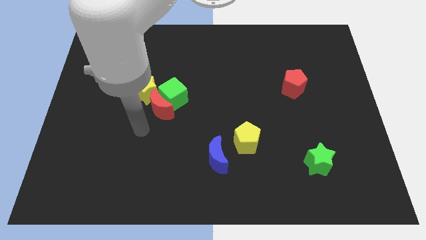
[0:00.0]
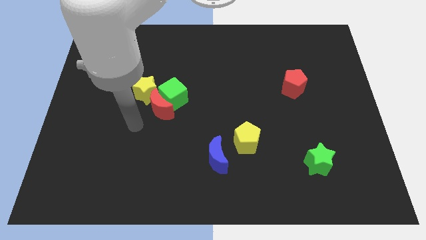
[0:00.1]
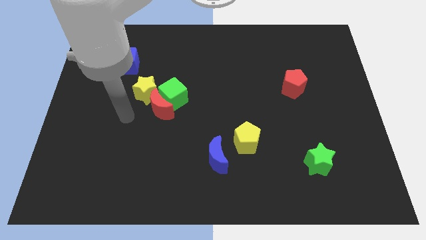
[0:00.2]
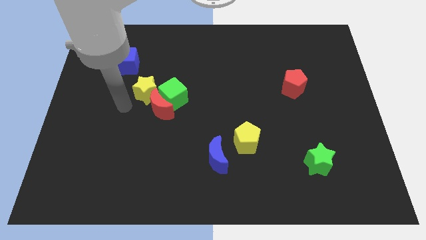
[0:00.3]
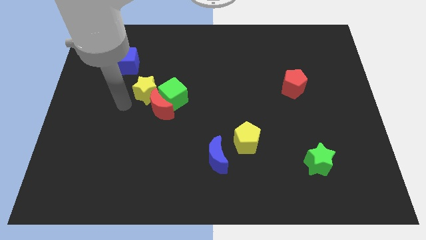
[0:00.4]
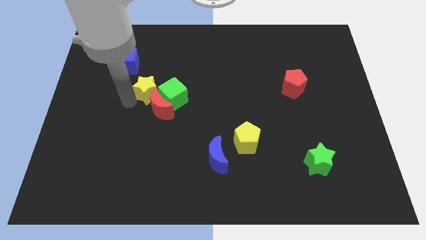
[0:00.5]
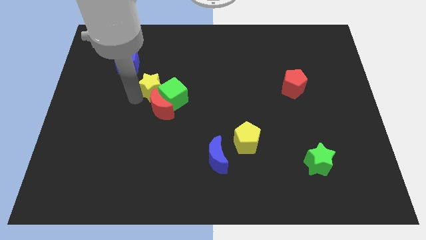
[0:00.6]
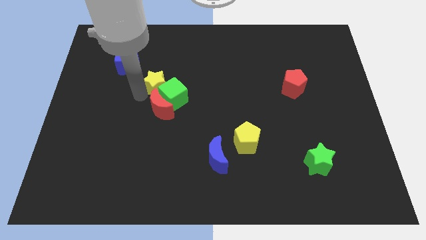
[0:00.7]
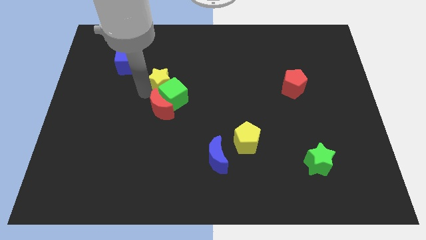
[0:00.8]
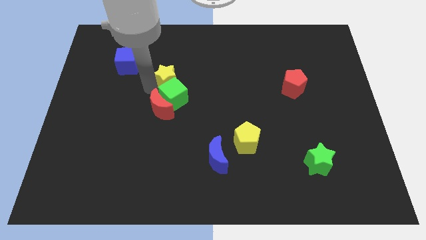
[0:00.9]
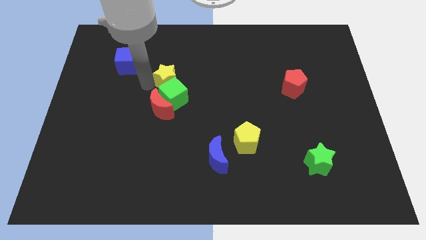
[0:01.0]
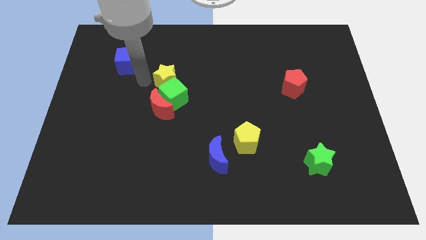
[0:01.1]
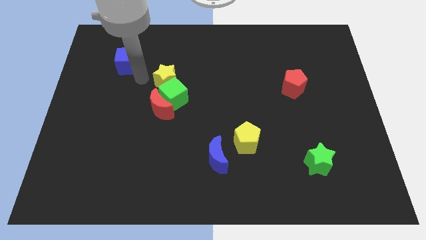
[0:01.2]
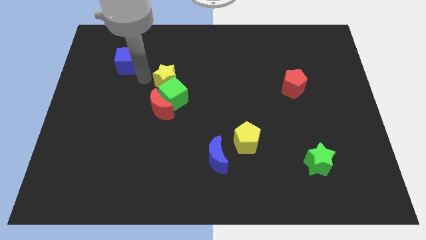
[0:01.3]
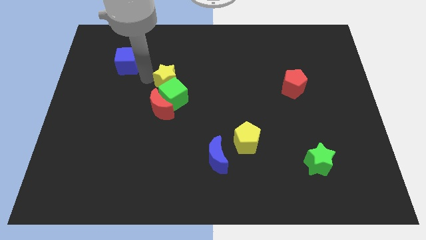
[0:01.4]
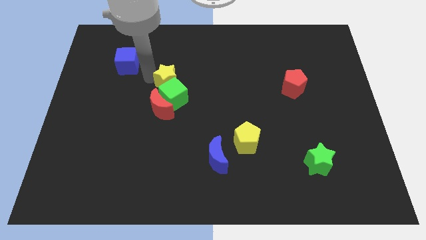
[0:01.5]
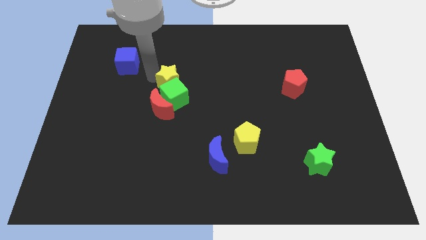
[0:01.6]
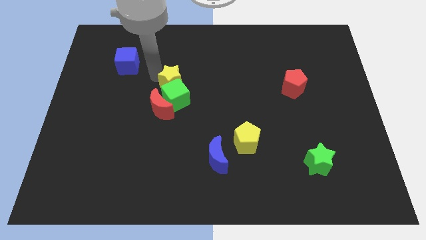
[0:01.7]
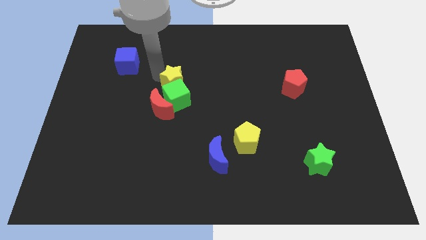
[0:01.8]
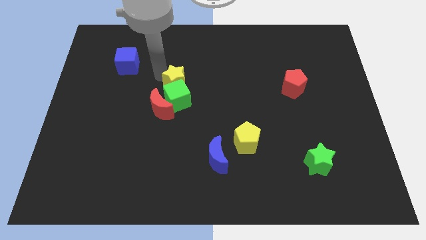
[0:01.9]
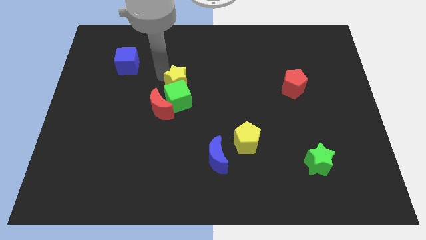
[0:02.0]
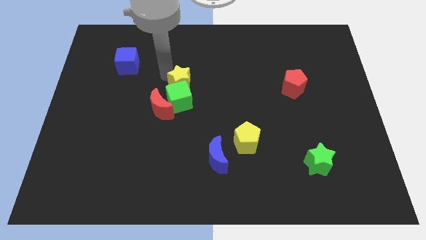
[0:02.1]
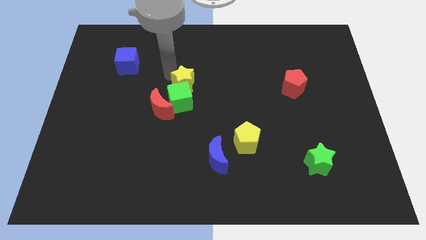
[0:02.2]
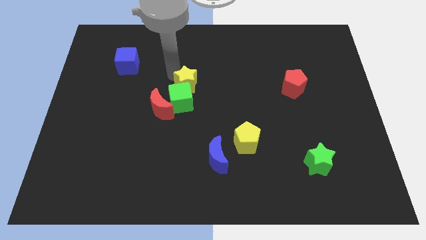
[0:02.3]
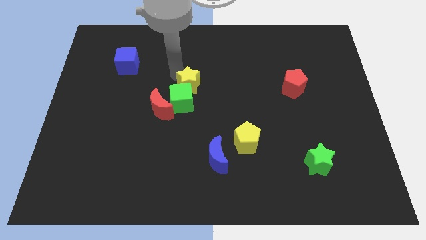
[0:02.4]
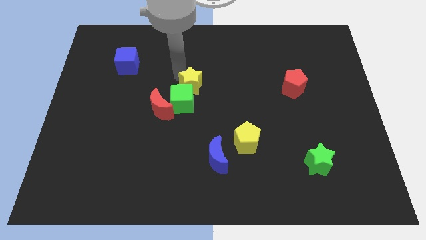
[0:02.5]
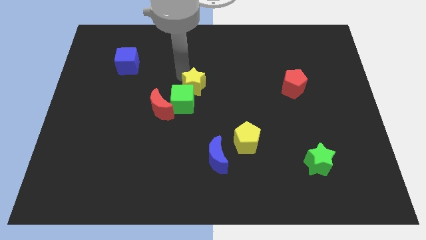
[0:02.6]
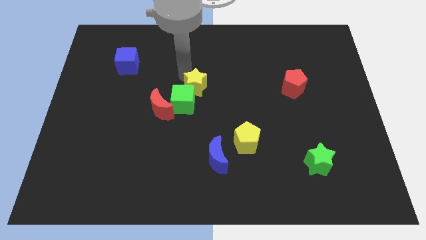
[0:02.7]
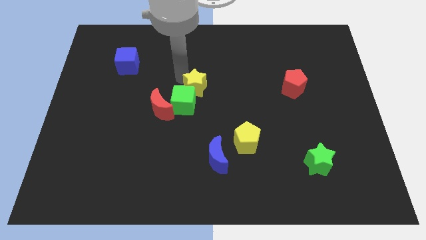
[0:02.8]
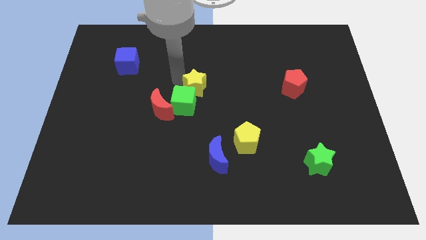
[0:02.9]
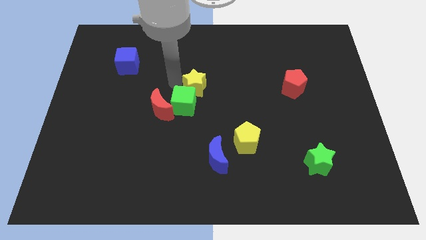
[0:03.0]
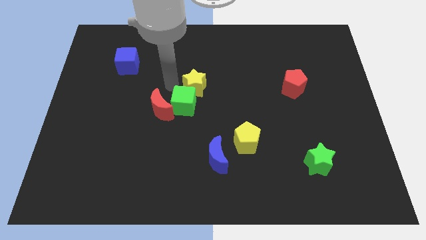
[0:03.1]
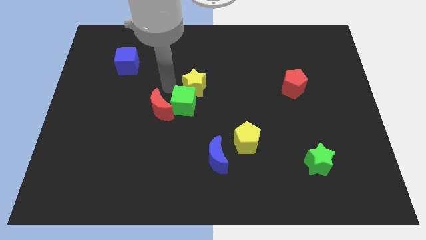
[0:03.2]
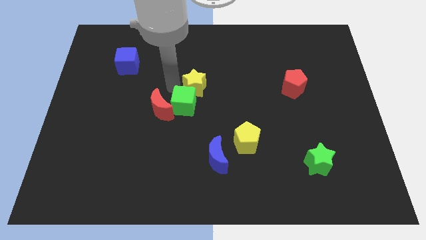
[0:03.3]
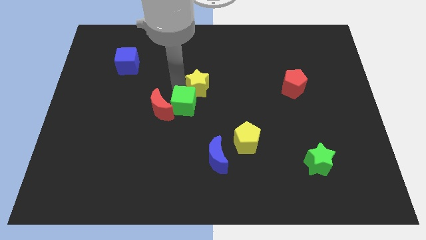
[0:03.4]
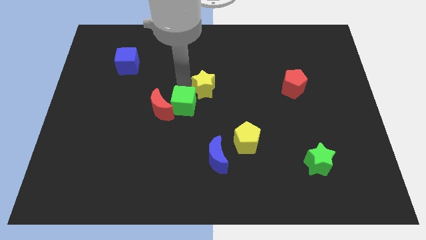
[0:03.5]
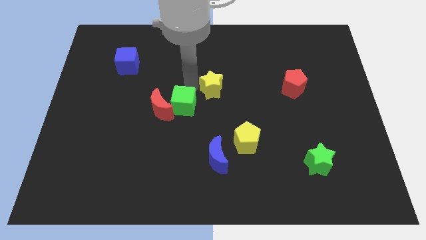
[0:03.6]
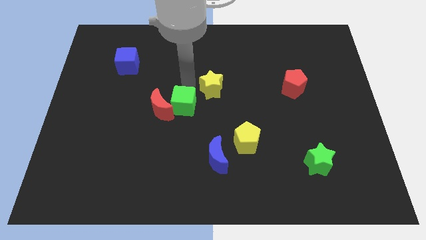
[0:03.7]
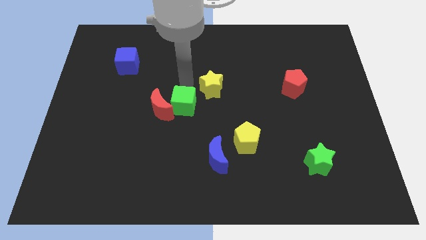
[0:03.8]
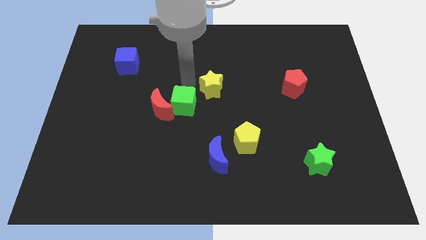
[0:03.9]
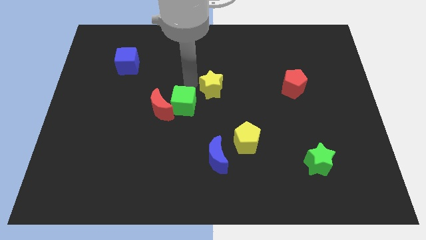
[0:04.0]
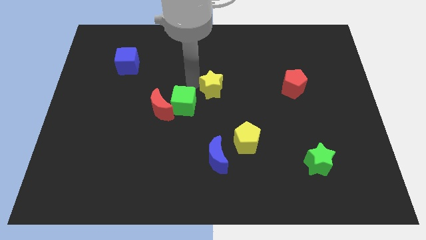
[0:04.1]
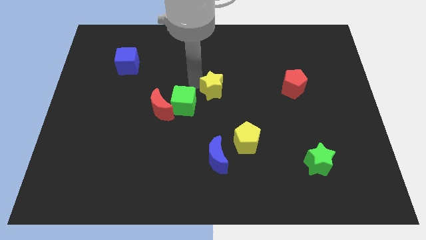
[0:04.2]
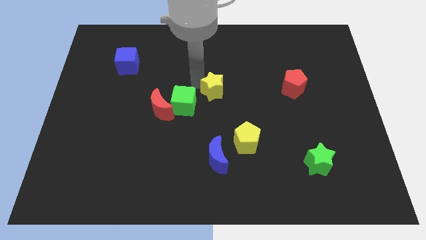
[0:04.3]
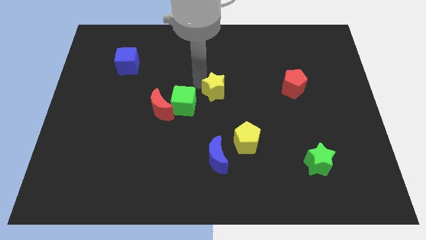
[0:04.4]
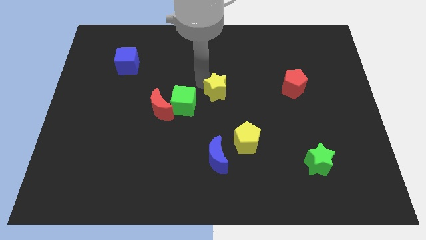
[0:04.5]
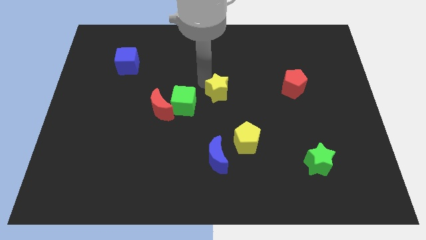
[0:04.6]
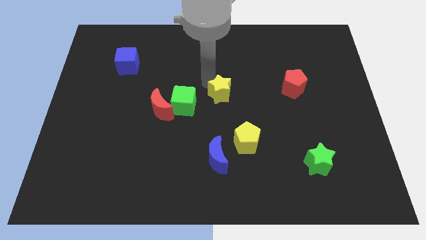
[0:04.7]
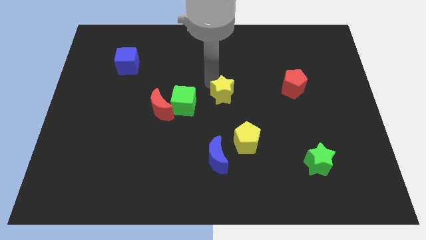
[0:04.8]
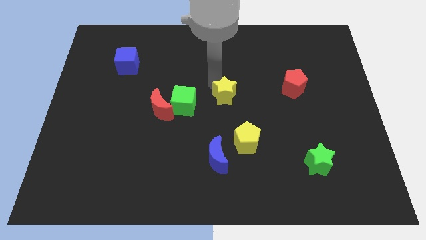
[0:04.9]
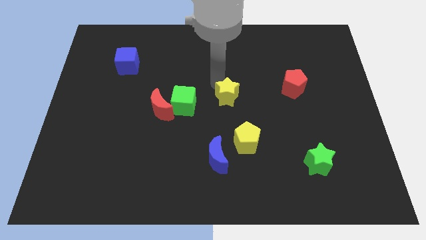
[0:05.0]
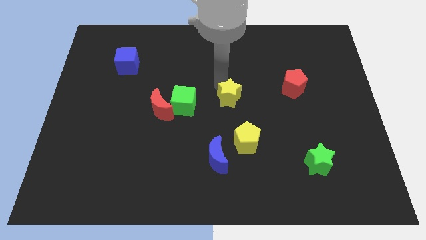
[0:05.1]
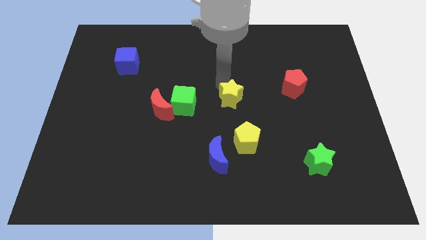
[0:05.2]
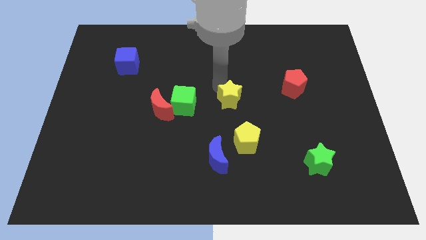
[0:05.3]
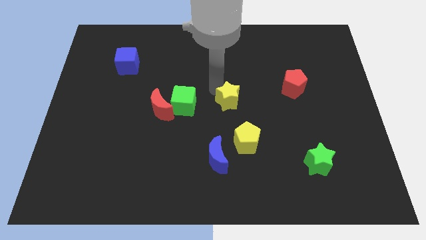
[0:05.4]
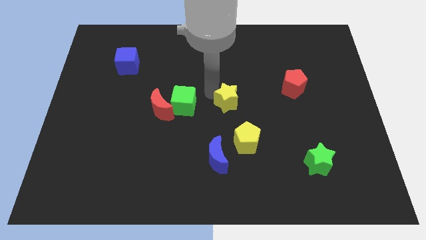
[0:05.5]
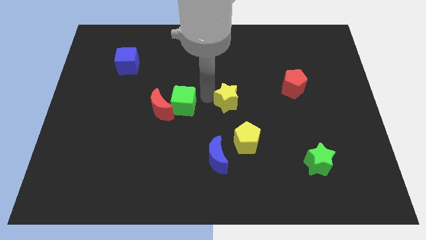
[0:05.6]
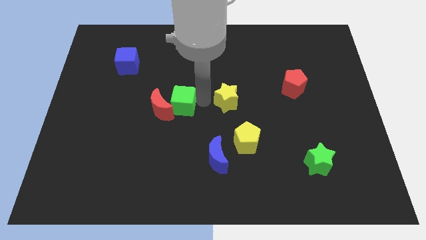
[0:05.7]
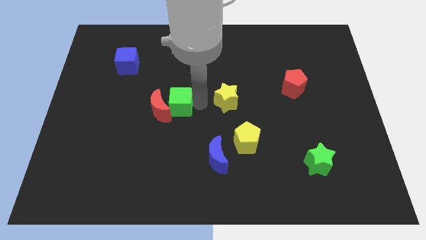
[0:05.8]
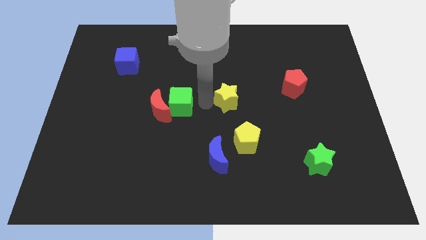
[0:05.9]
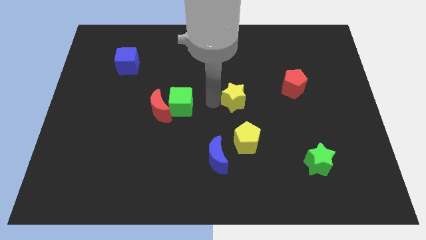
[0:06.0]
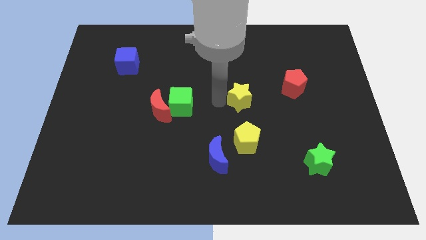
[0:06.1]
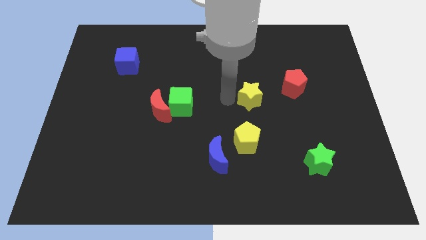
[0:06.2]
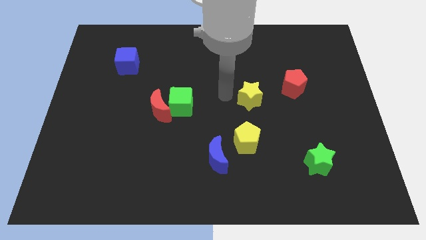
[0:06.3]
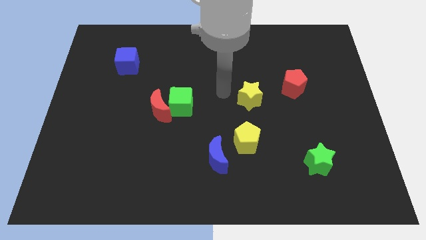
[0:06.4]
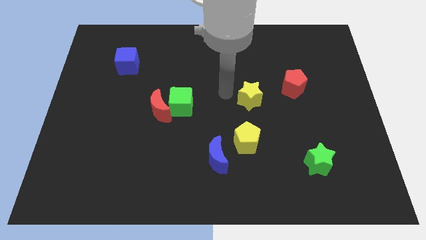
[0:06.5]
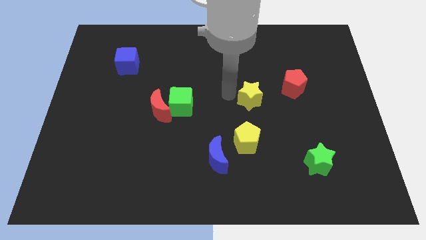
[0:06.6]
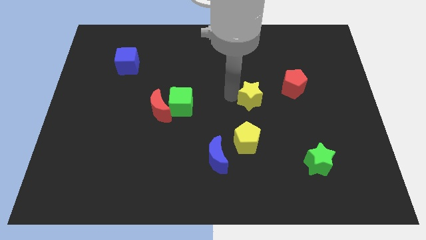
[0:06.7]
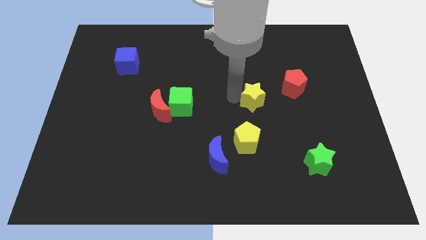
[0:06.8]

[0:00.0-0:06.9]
move the yellow star diagonally down and to the left of the red pentagon

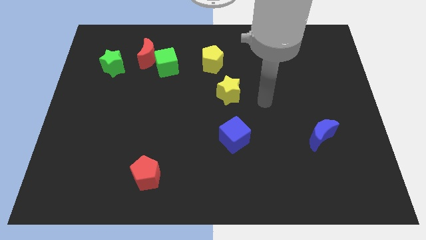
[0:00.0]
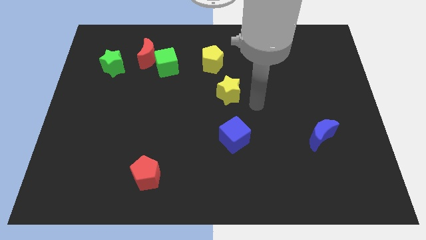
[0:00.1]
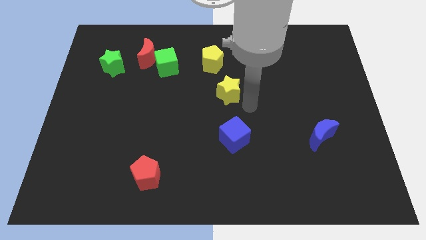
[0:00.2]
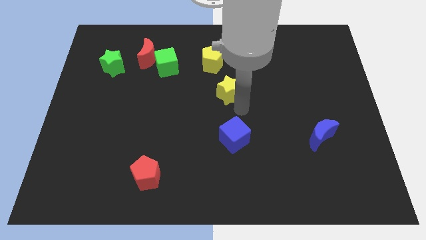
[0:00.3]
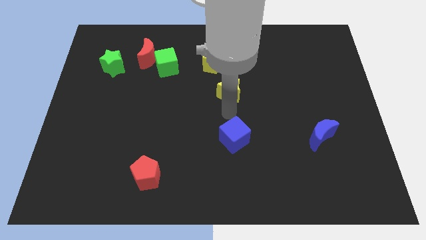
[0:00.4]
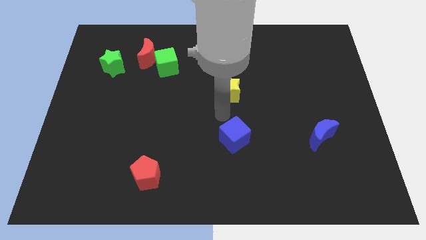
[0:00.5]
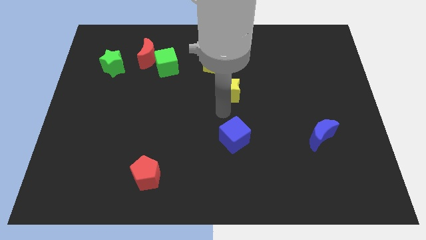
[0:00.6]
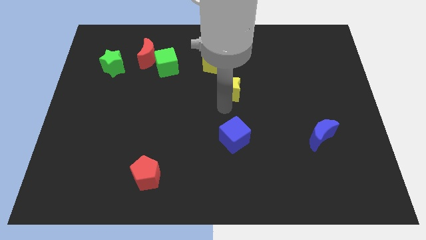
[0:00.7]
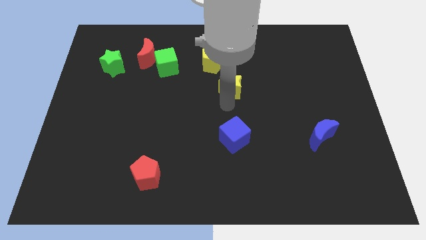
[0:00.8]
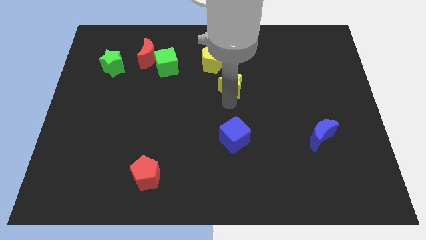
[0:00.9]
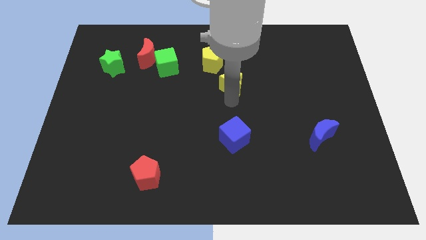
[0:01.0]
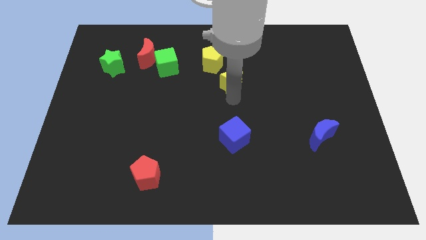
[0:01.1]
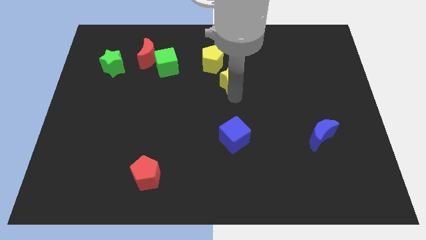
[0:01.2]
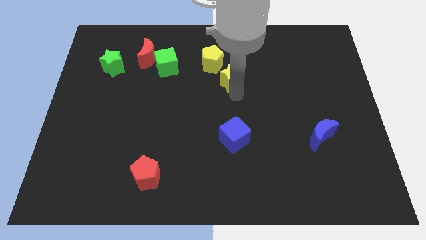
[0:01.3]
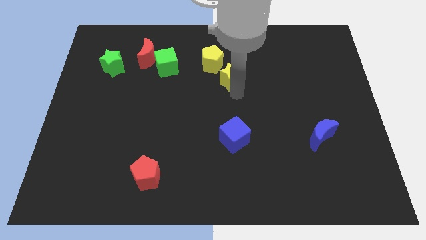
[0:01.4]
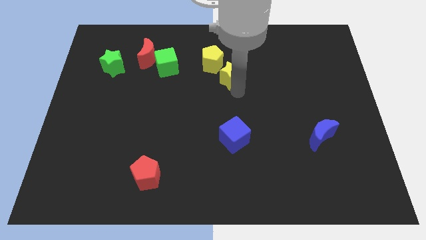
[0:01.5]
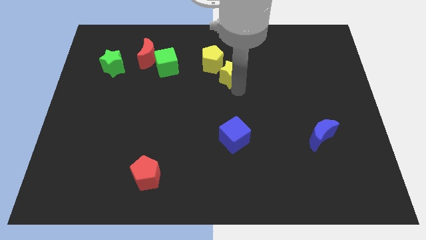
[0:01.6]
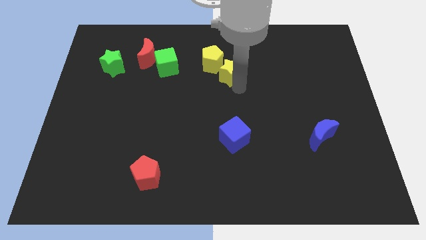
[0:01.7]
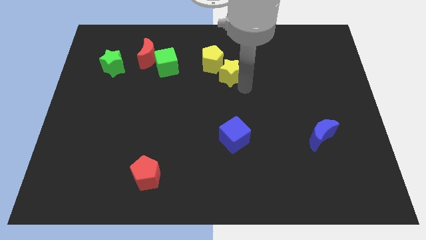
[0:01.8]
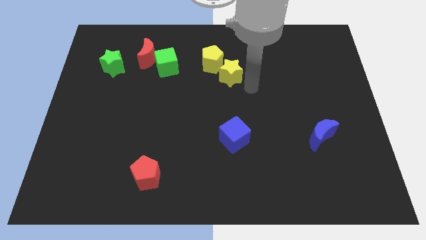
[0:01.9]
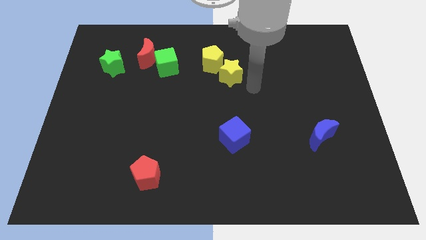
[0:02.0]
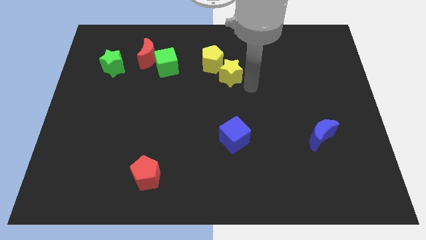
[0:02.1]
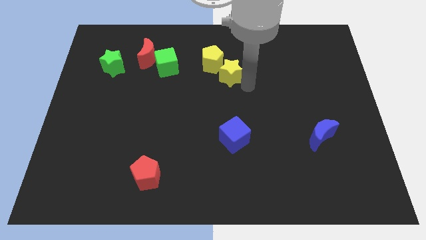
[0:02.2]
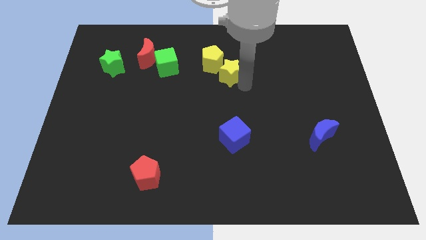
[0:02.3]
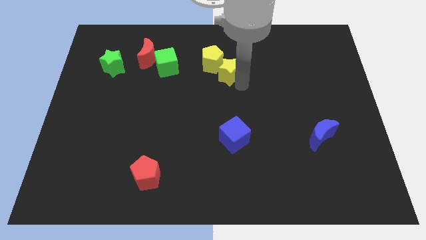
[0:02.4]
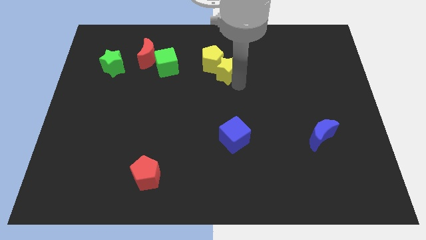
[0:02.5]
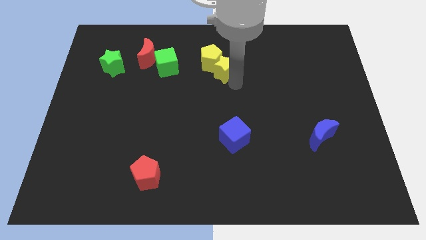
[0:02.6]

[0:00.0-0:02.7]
put the yellow star right of the green cube
